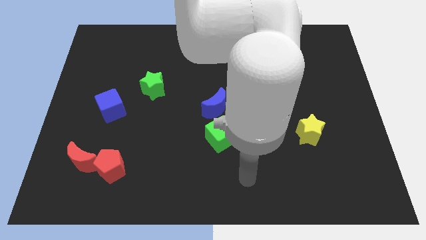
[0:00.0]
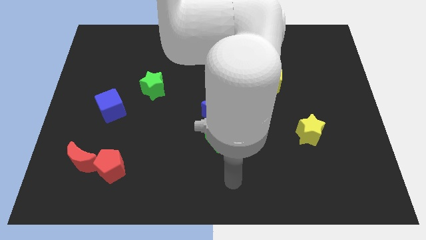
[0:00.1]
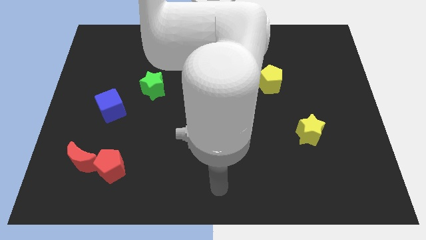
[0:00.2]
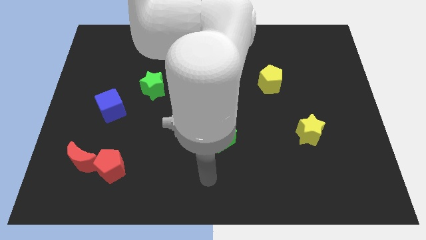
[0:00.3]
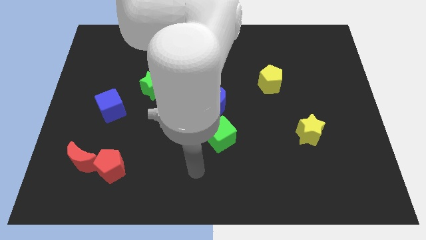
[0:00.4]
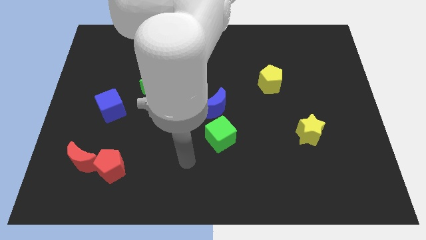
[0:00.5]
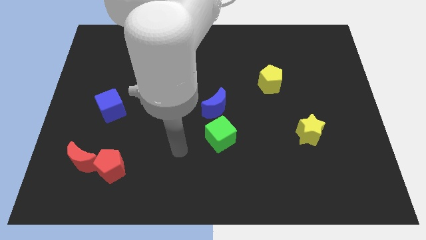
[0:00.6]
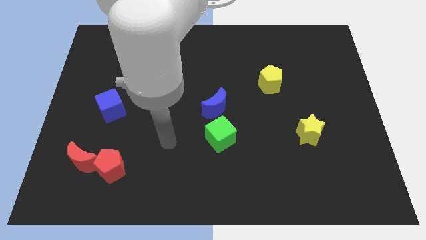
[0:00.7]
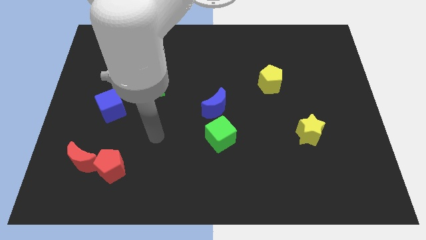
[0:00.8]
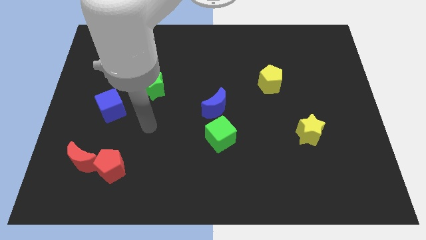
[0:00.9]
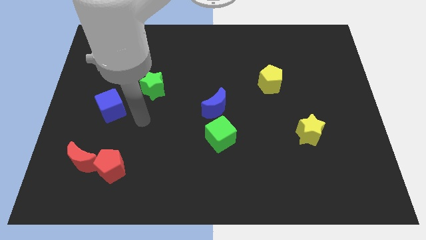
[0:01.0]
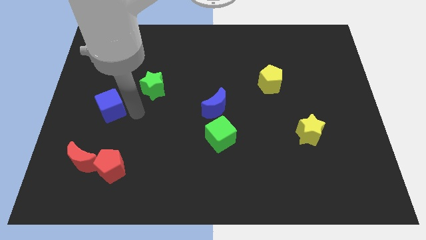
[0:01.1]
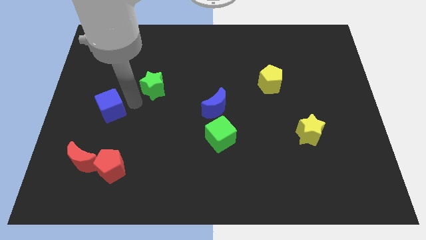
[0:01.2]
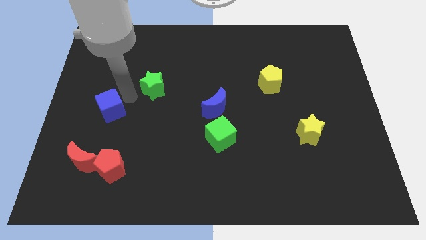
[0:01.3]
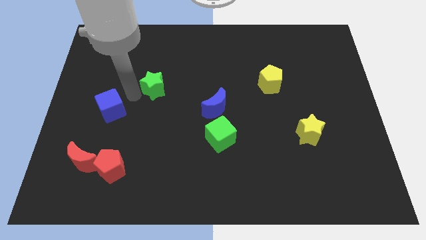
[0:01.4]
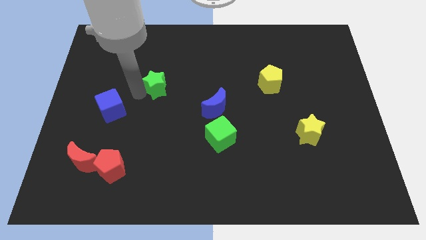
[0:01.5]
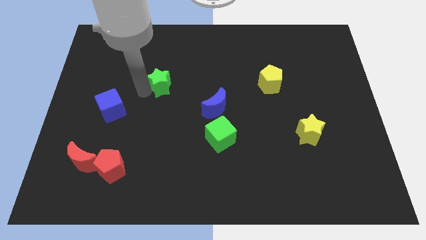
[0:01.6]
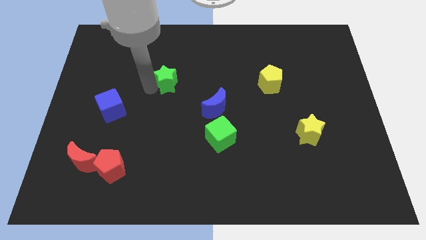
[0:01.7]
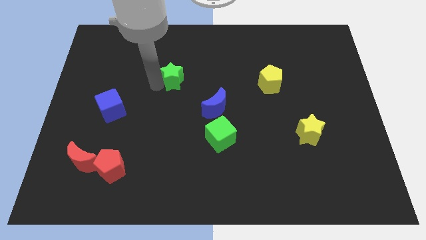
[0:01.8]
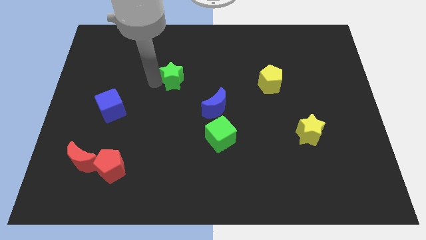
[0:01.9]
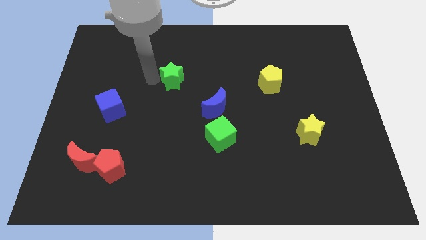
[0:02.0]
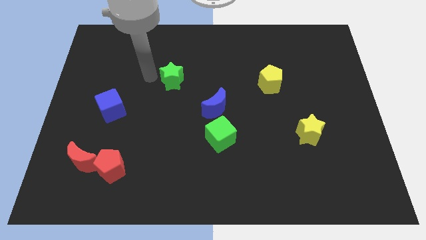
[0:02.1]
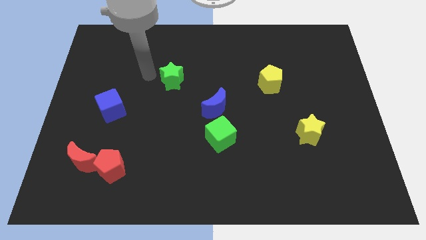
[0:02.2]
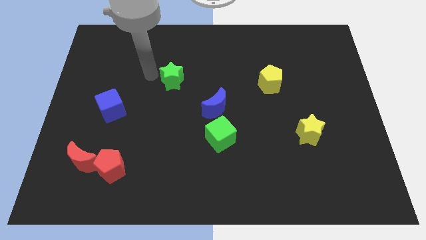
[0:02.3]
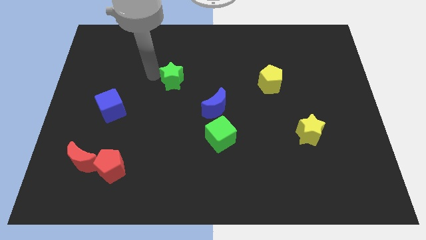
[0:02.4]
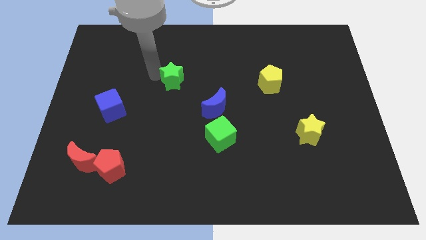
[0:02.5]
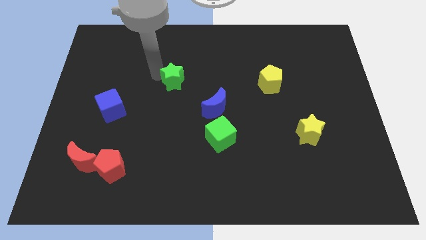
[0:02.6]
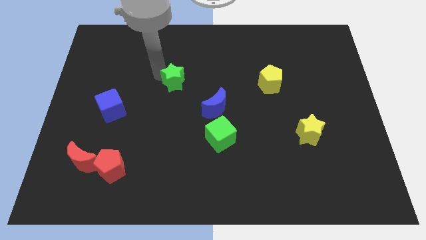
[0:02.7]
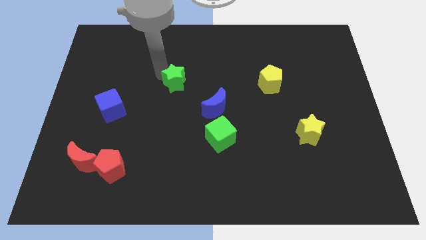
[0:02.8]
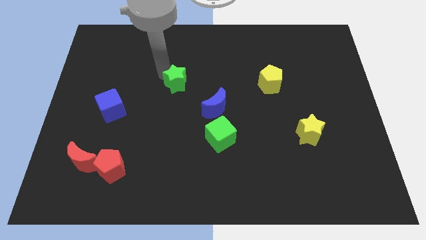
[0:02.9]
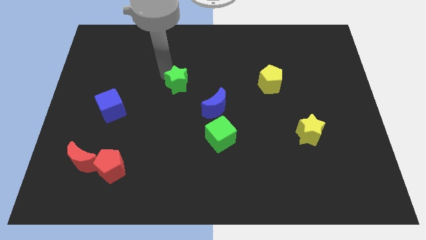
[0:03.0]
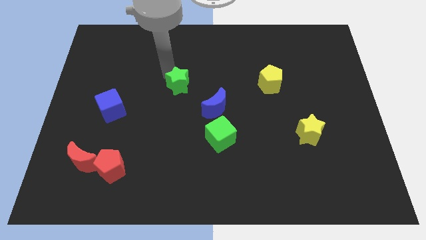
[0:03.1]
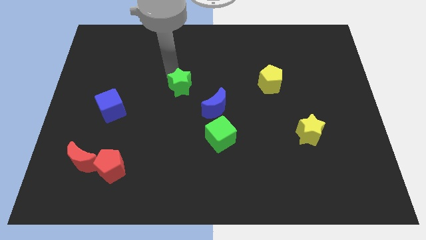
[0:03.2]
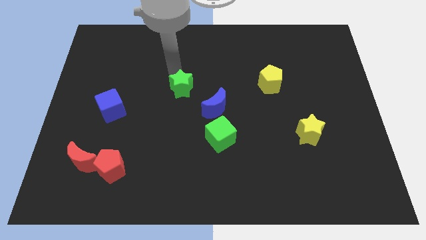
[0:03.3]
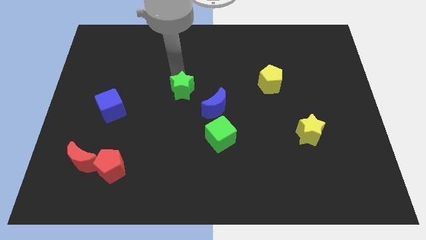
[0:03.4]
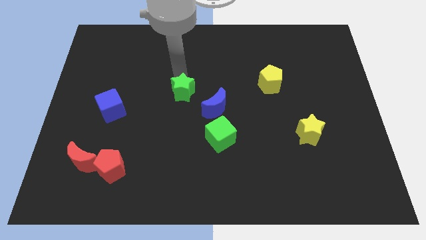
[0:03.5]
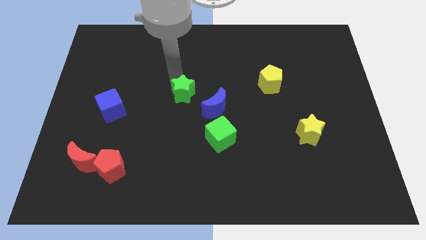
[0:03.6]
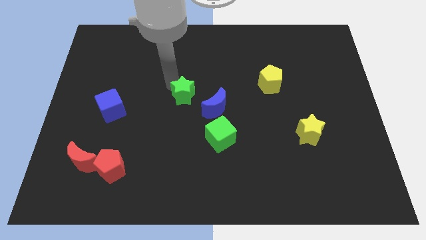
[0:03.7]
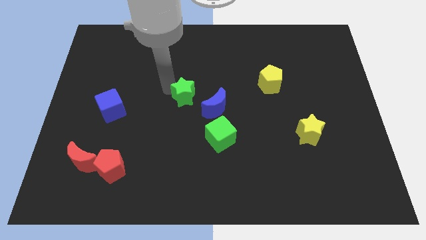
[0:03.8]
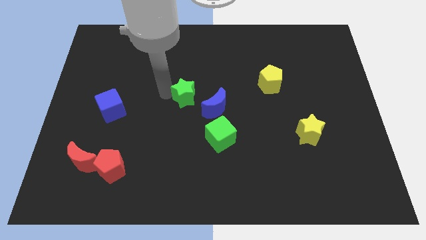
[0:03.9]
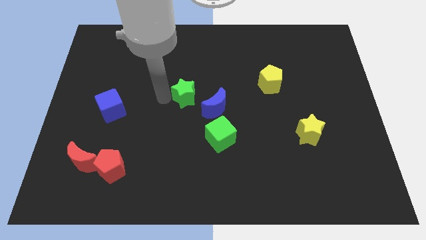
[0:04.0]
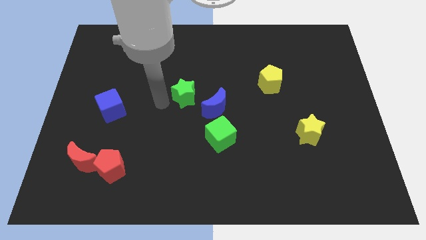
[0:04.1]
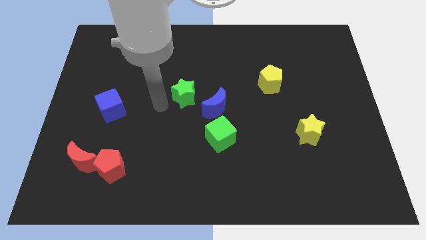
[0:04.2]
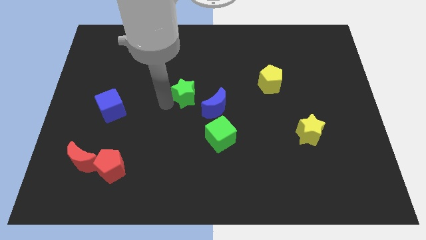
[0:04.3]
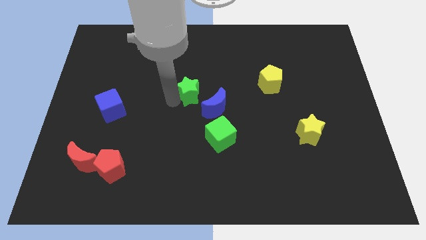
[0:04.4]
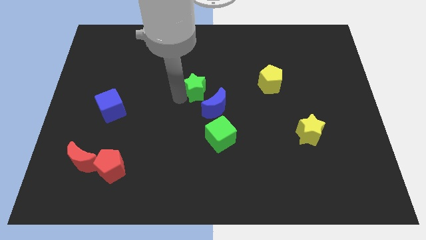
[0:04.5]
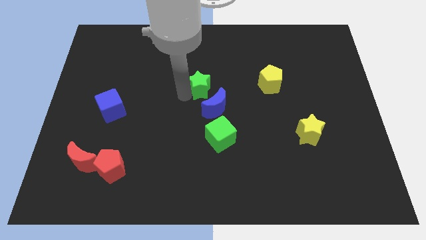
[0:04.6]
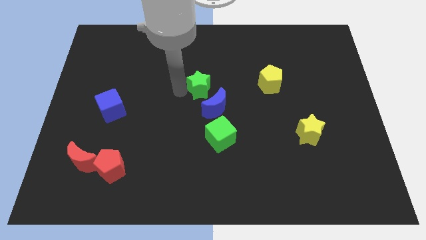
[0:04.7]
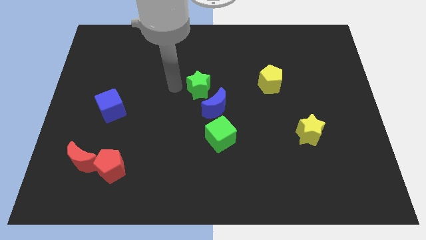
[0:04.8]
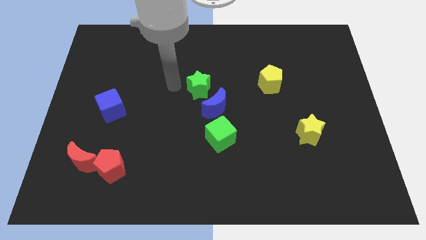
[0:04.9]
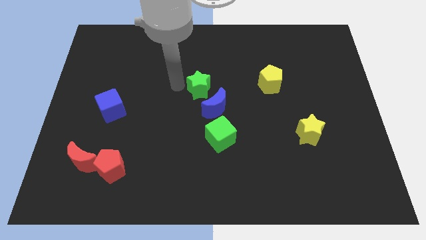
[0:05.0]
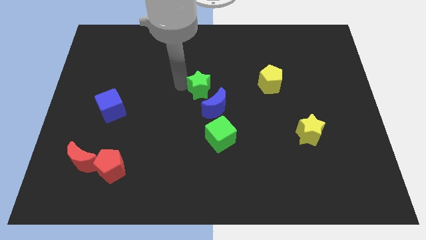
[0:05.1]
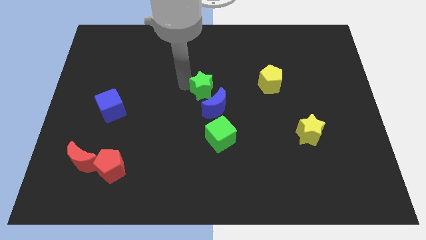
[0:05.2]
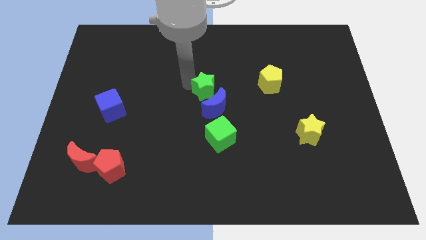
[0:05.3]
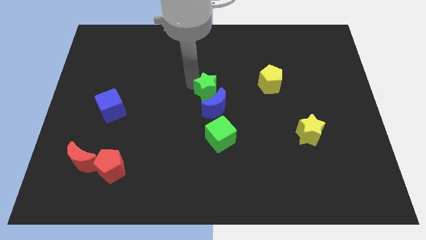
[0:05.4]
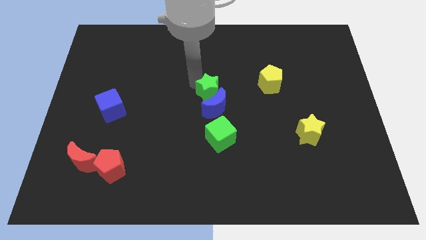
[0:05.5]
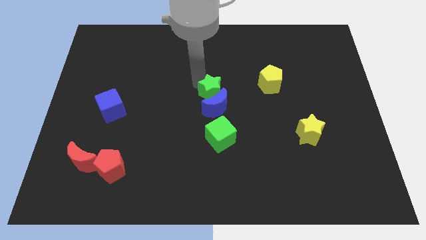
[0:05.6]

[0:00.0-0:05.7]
put the green star diagonally up and to the right of the blue moon

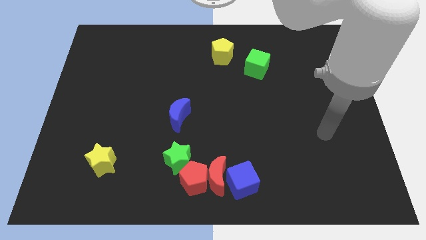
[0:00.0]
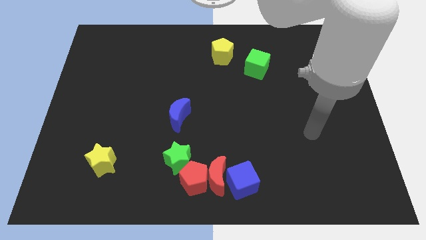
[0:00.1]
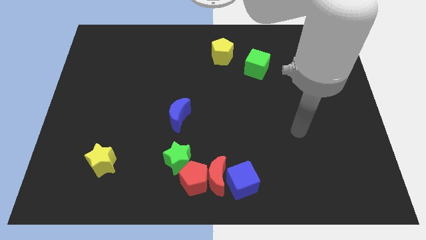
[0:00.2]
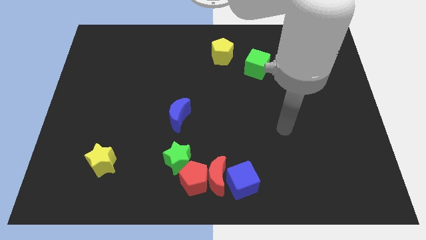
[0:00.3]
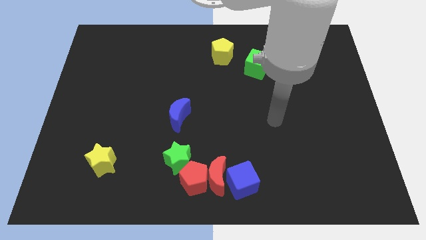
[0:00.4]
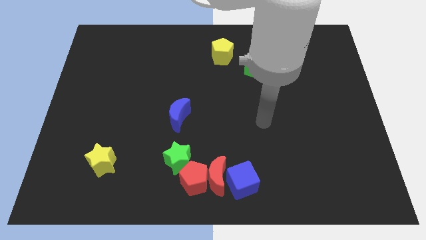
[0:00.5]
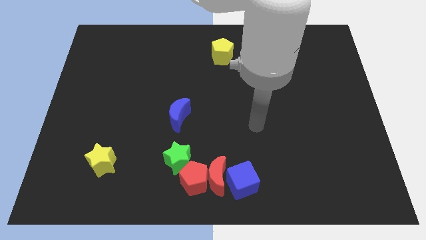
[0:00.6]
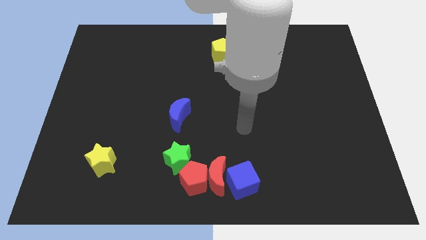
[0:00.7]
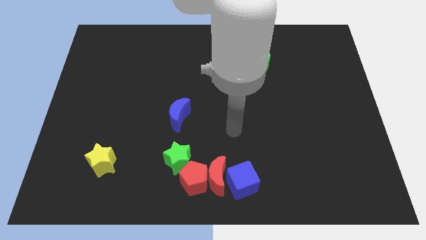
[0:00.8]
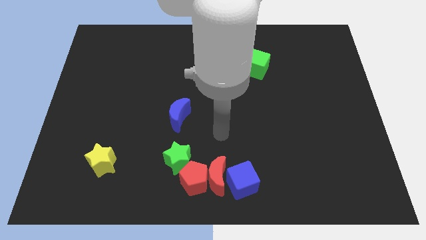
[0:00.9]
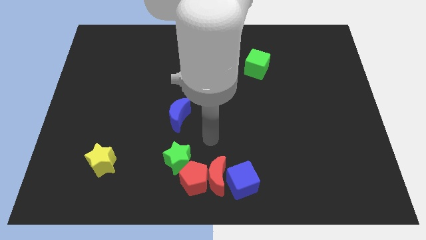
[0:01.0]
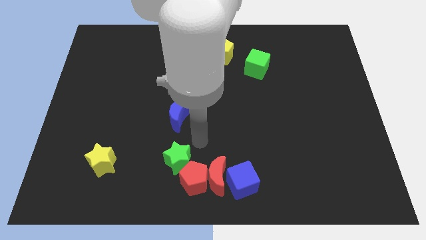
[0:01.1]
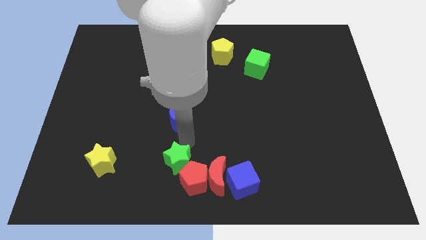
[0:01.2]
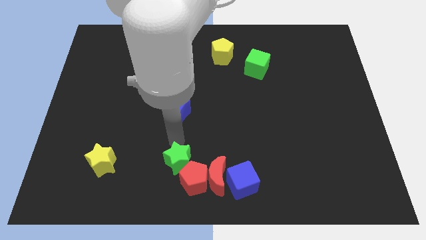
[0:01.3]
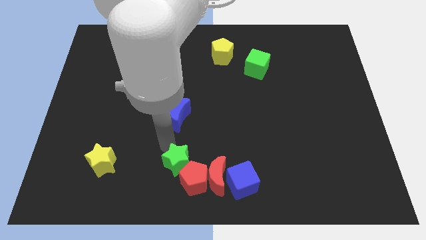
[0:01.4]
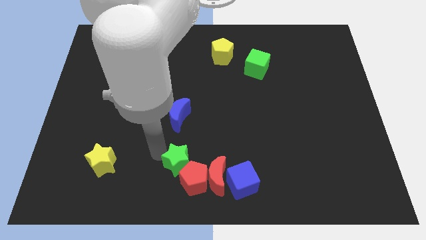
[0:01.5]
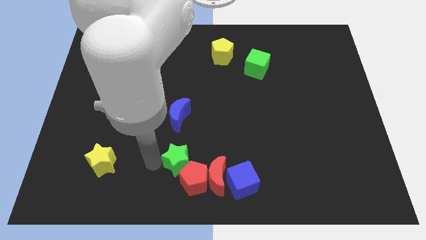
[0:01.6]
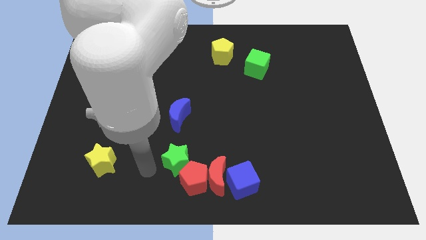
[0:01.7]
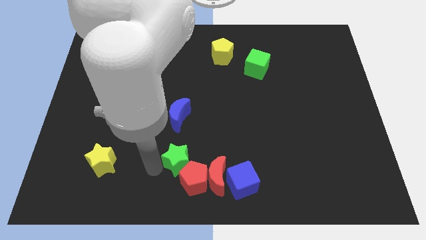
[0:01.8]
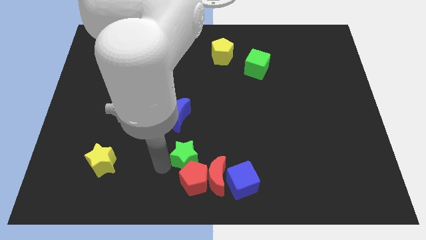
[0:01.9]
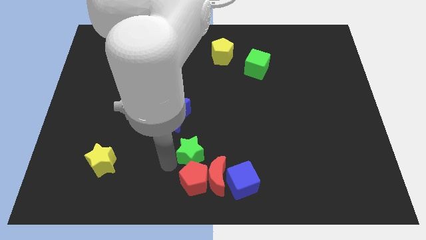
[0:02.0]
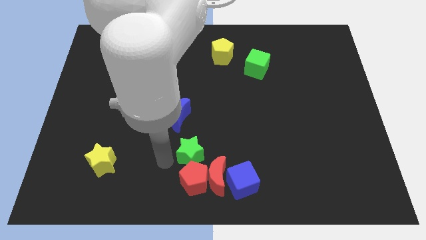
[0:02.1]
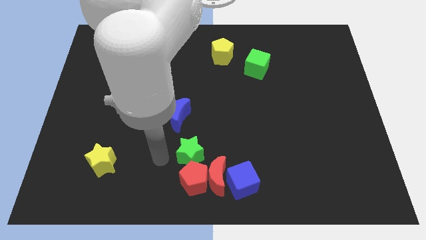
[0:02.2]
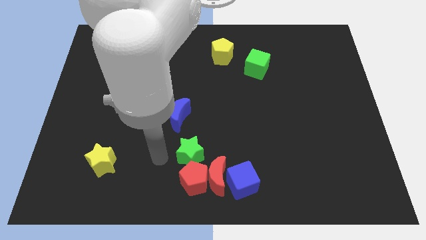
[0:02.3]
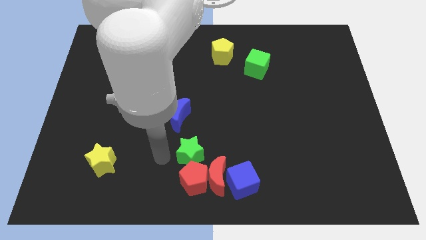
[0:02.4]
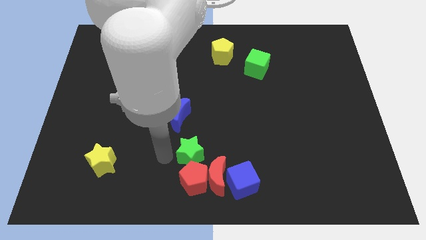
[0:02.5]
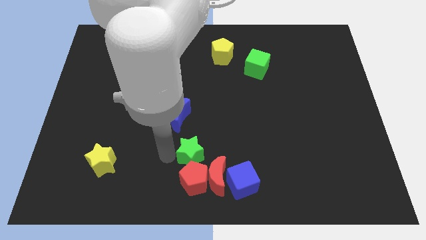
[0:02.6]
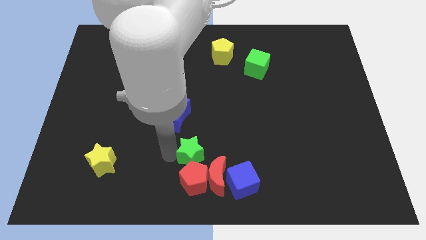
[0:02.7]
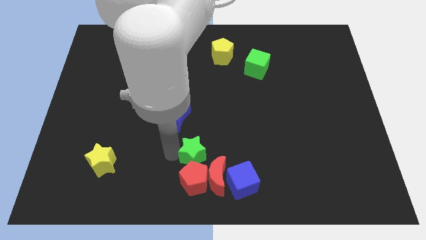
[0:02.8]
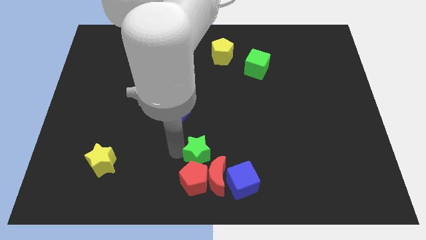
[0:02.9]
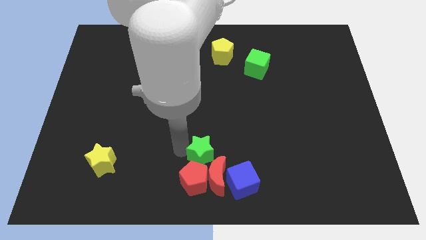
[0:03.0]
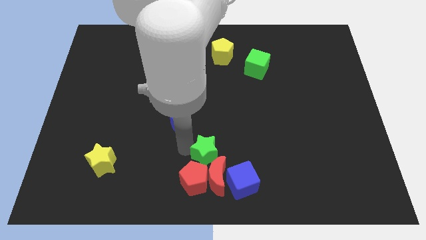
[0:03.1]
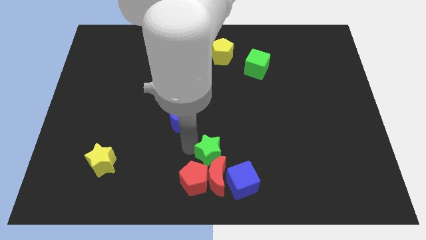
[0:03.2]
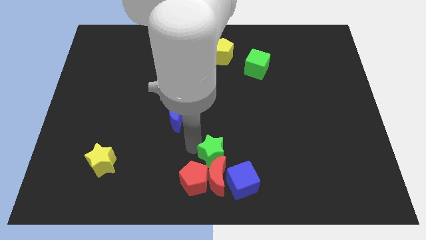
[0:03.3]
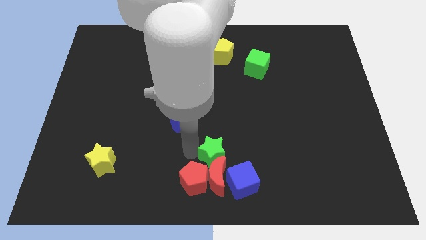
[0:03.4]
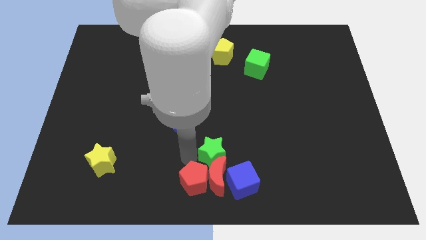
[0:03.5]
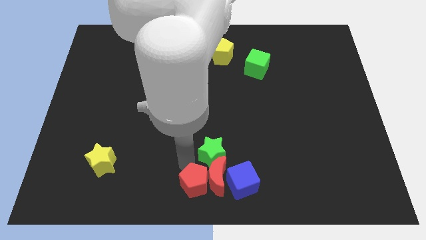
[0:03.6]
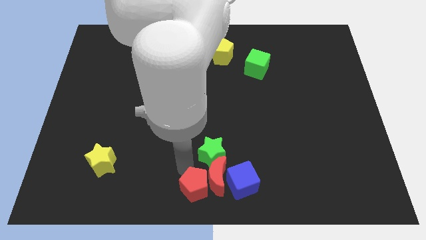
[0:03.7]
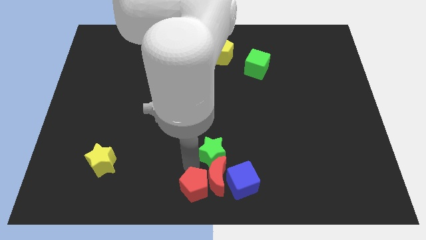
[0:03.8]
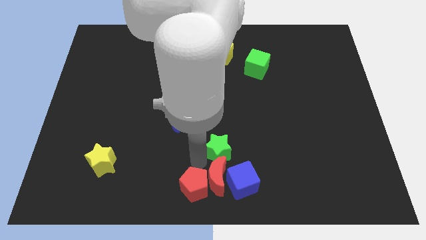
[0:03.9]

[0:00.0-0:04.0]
slide the green star to the top of the blue cube
